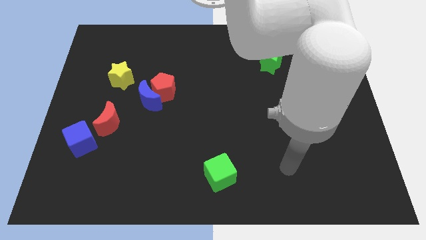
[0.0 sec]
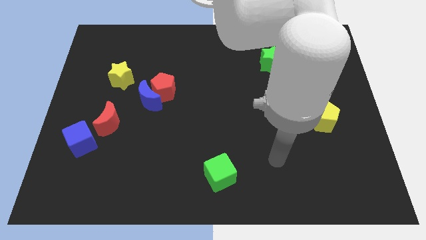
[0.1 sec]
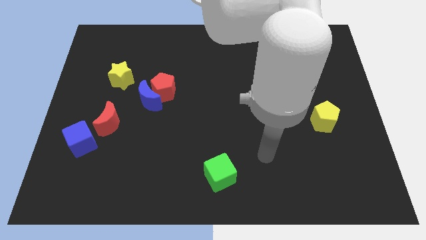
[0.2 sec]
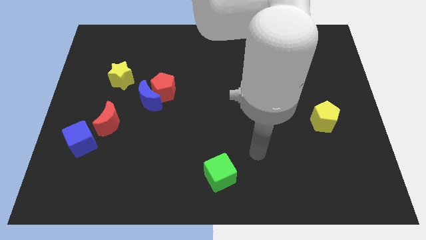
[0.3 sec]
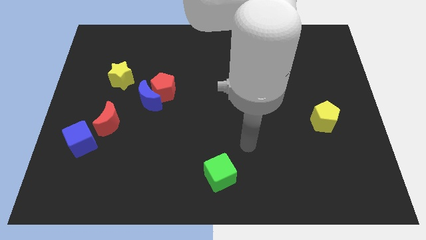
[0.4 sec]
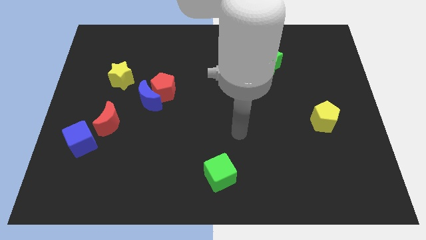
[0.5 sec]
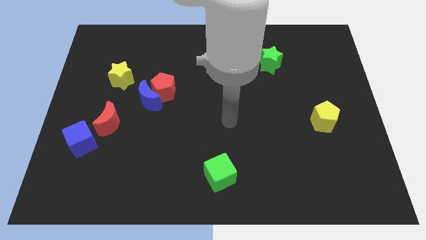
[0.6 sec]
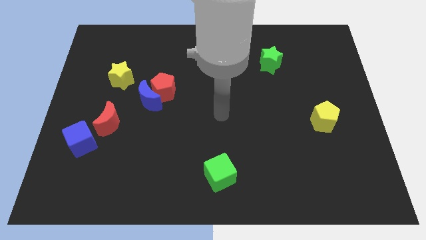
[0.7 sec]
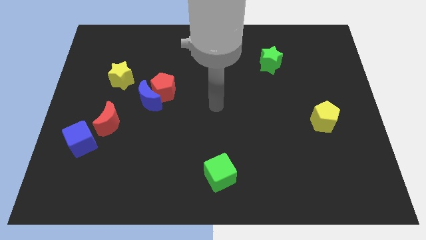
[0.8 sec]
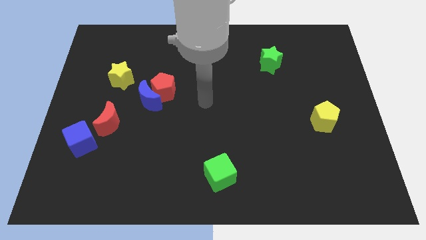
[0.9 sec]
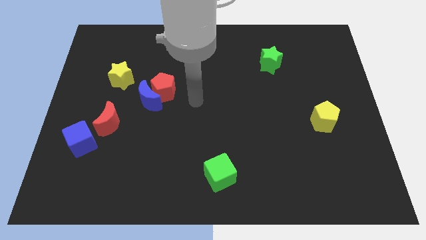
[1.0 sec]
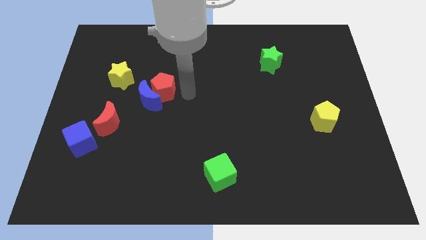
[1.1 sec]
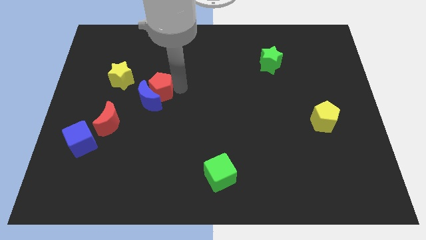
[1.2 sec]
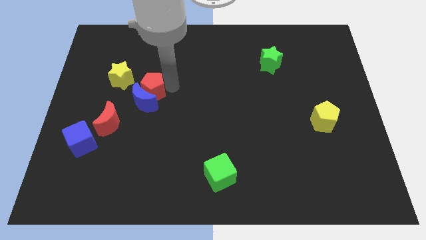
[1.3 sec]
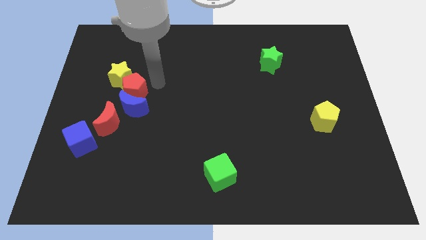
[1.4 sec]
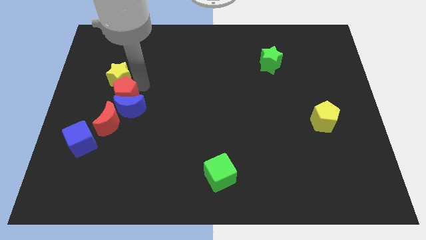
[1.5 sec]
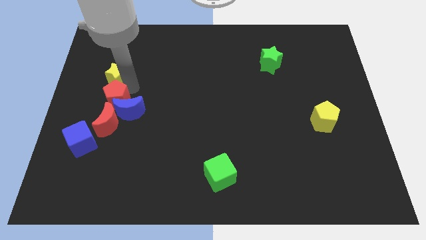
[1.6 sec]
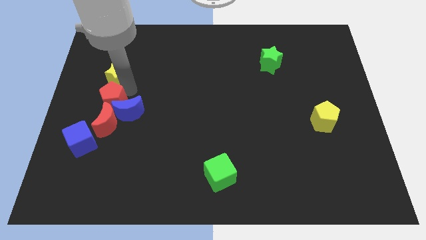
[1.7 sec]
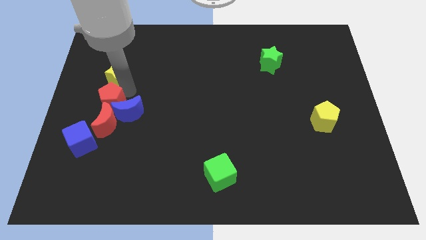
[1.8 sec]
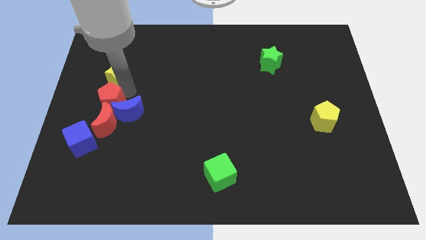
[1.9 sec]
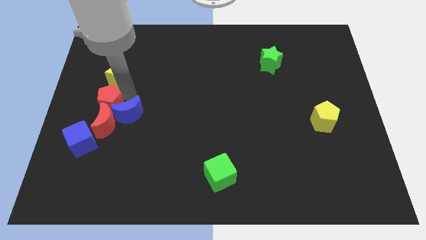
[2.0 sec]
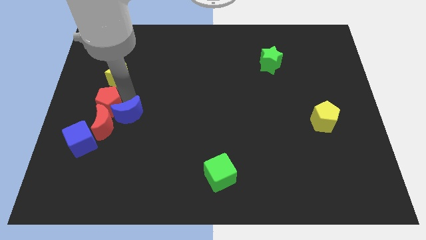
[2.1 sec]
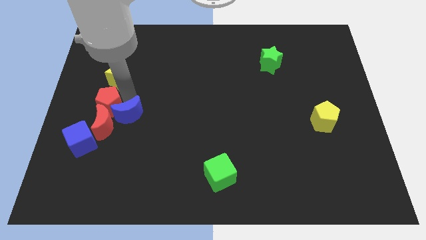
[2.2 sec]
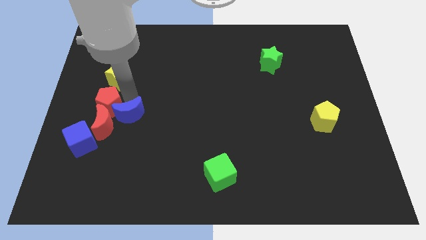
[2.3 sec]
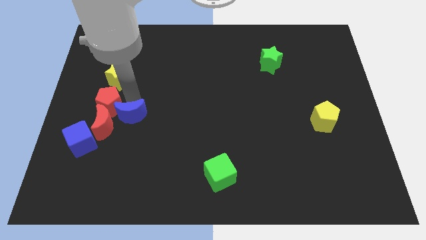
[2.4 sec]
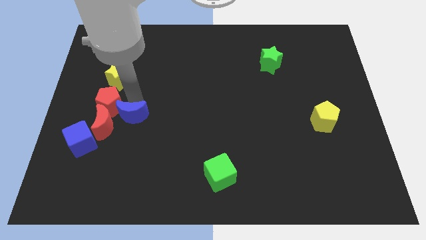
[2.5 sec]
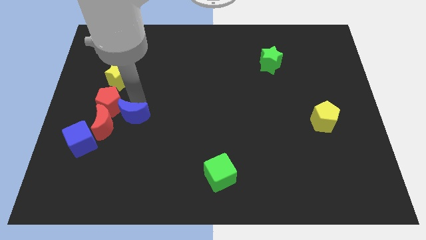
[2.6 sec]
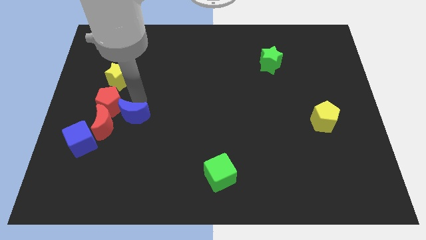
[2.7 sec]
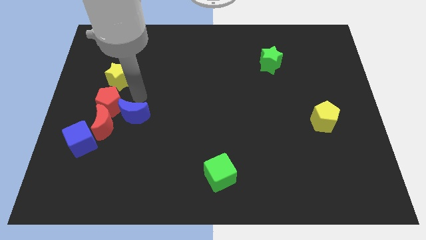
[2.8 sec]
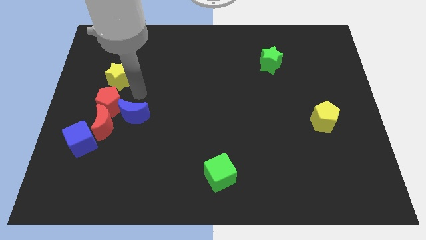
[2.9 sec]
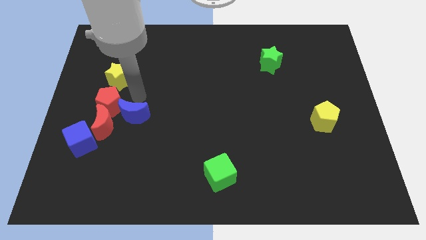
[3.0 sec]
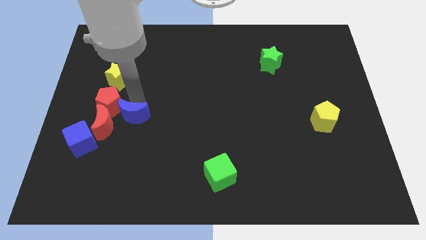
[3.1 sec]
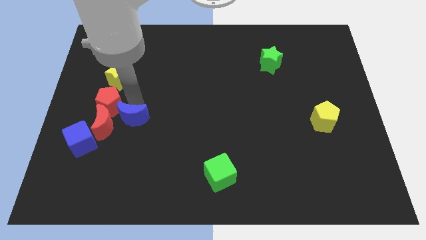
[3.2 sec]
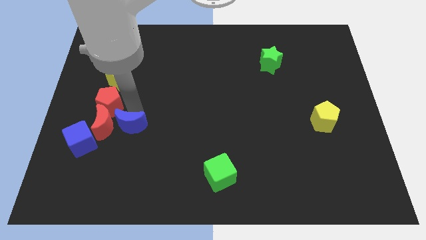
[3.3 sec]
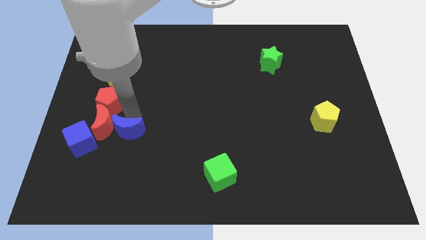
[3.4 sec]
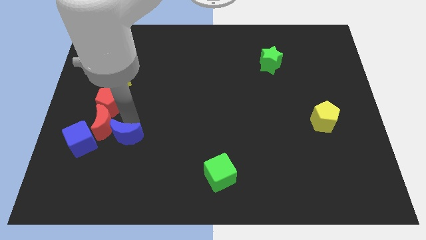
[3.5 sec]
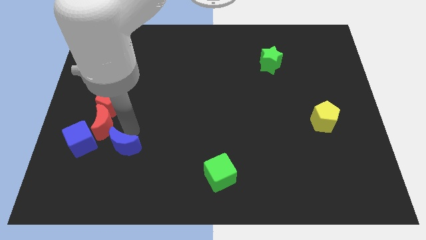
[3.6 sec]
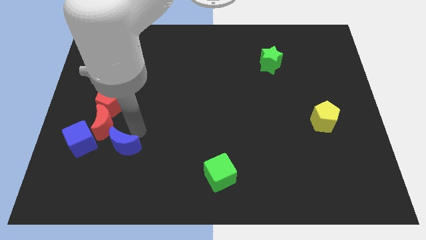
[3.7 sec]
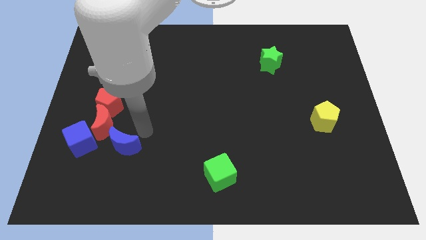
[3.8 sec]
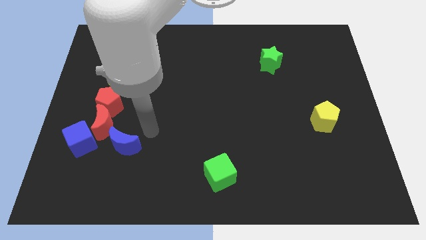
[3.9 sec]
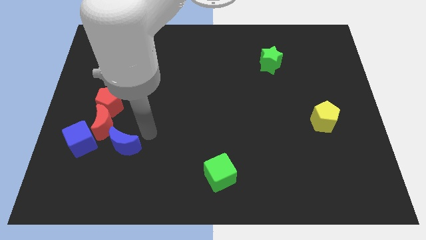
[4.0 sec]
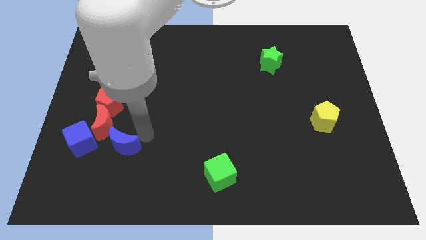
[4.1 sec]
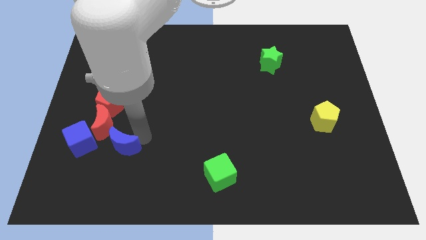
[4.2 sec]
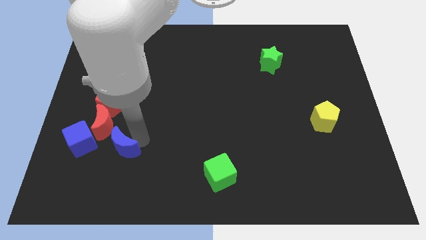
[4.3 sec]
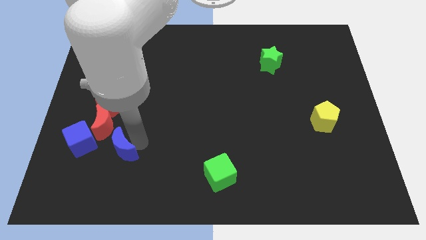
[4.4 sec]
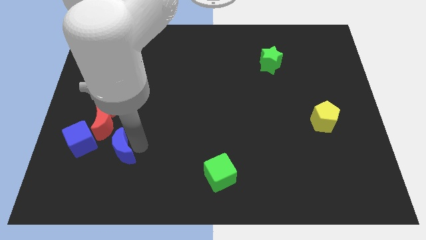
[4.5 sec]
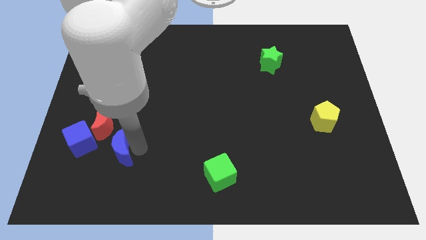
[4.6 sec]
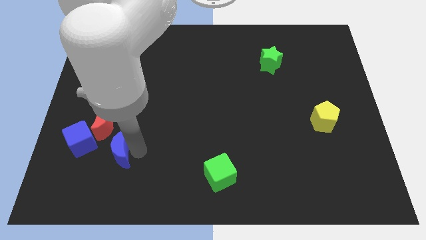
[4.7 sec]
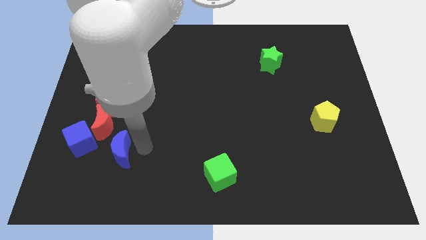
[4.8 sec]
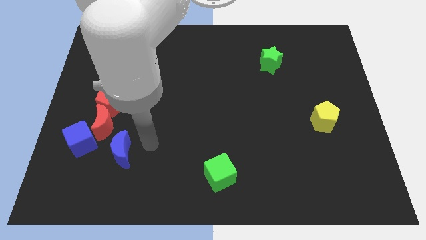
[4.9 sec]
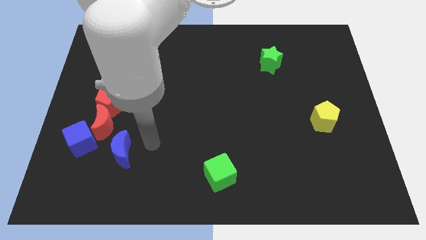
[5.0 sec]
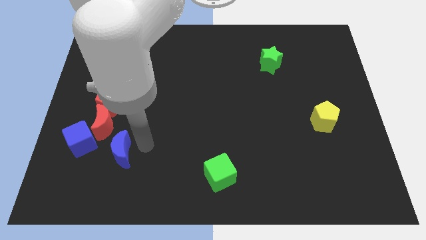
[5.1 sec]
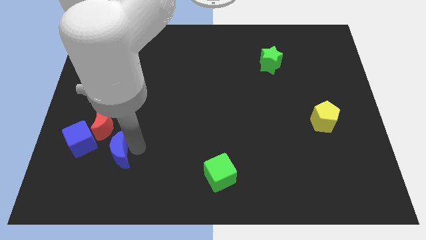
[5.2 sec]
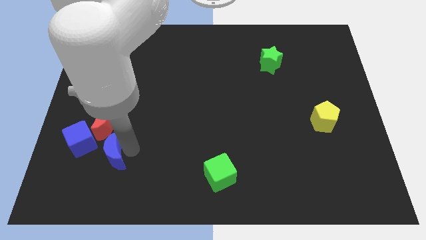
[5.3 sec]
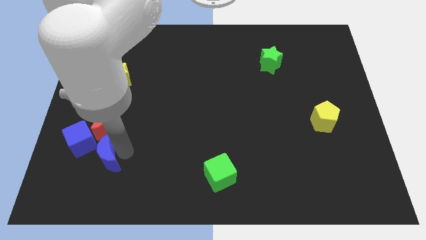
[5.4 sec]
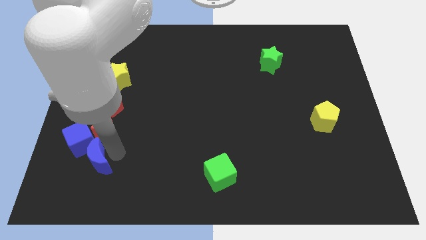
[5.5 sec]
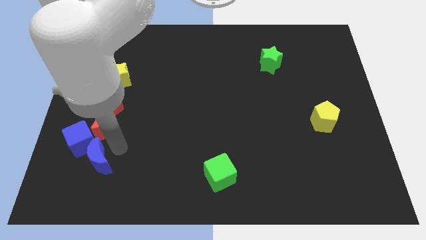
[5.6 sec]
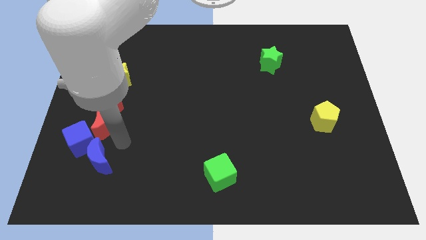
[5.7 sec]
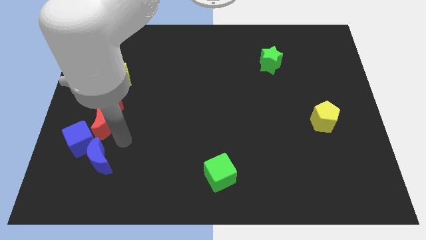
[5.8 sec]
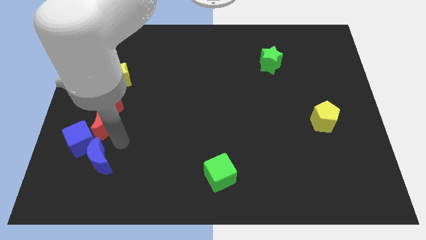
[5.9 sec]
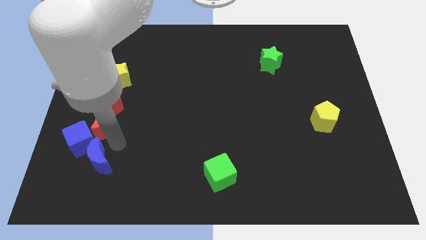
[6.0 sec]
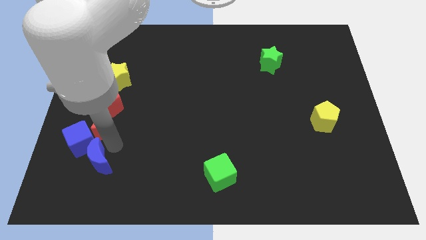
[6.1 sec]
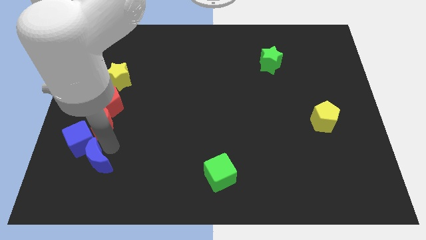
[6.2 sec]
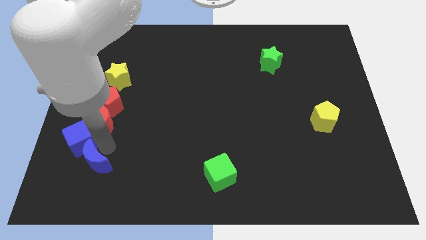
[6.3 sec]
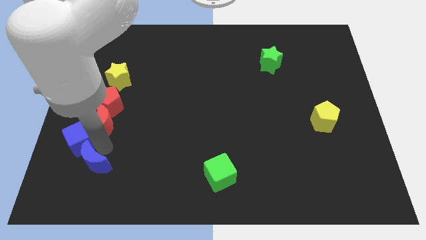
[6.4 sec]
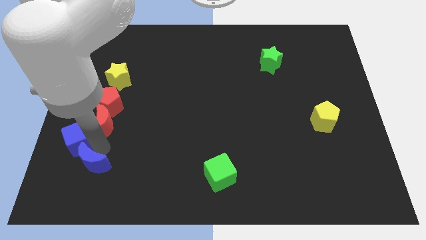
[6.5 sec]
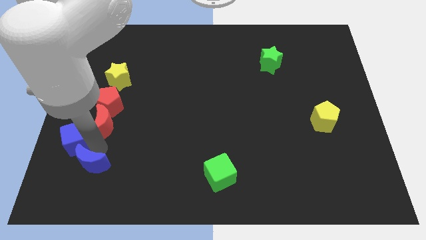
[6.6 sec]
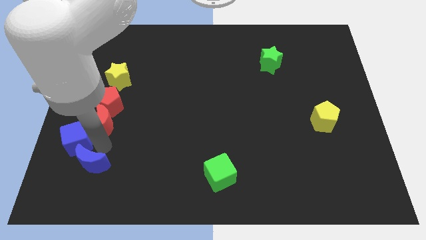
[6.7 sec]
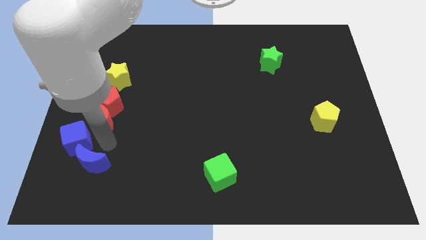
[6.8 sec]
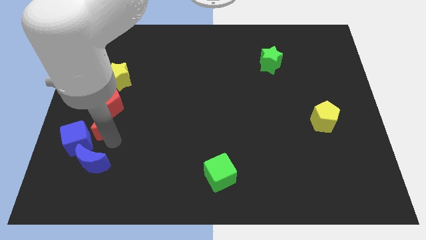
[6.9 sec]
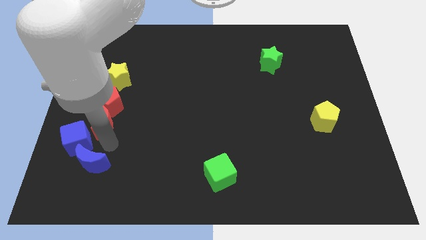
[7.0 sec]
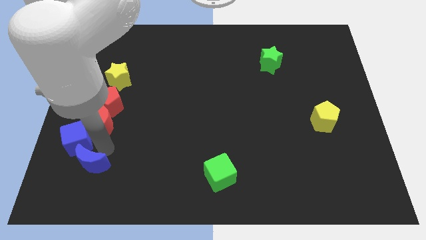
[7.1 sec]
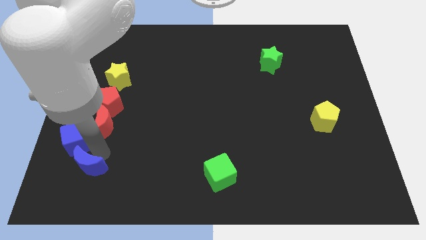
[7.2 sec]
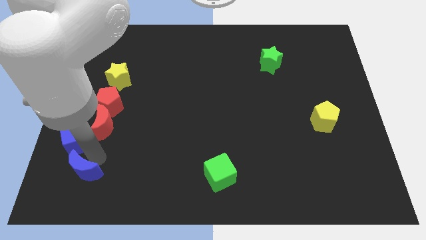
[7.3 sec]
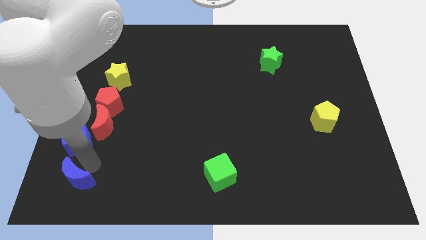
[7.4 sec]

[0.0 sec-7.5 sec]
slide the blue moon to the bottom left
